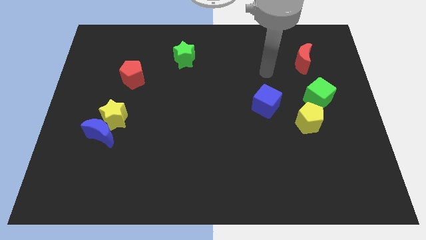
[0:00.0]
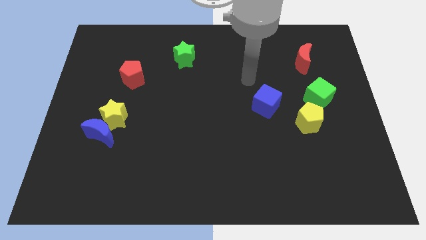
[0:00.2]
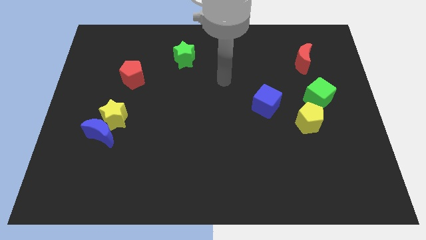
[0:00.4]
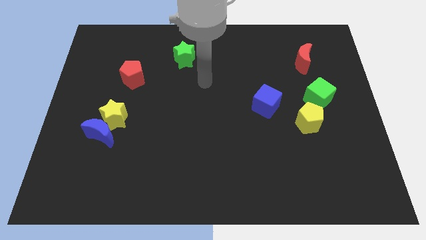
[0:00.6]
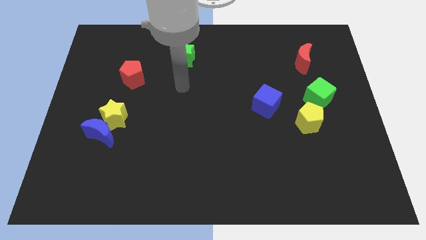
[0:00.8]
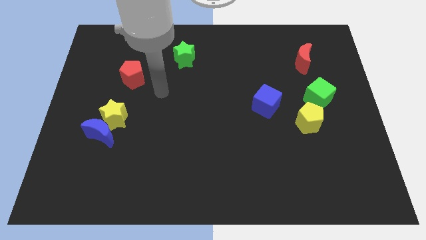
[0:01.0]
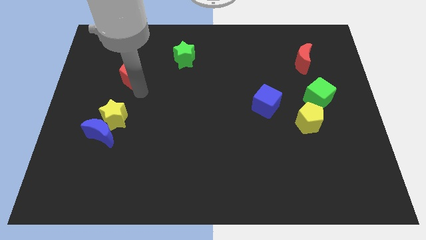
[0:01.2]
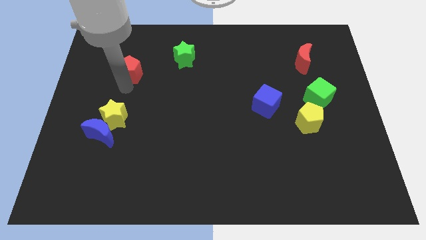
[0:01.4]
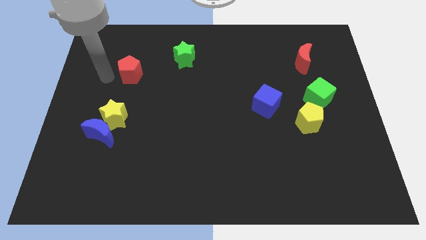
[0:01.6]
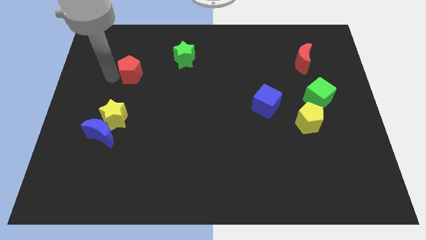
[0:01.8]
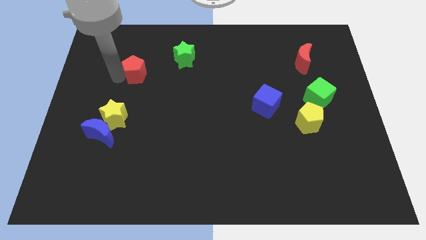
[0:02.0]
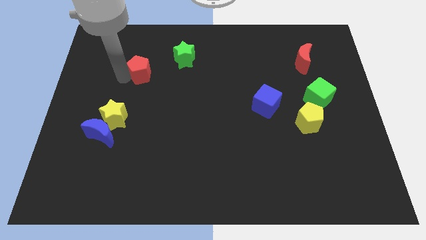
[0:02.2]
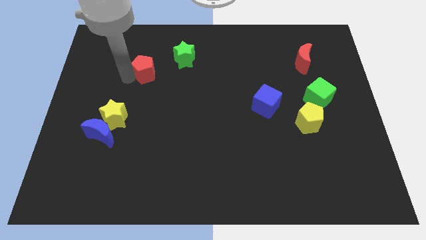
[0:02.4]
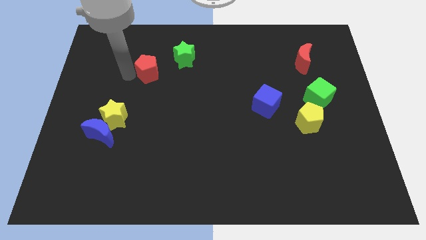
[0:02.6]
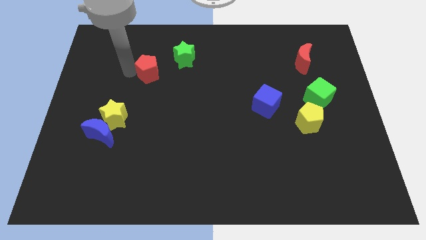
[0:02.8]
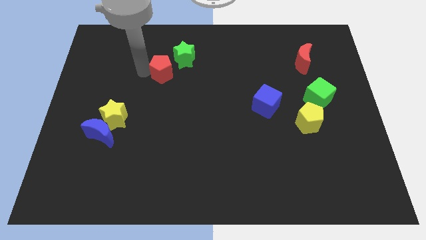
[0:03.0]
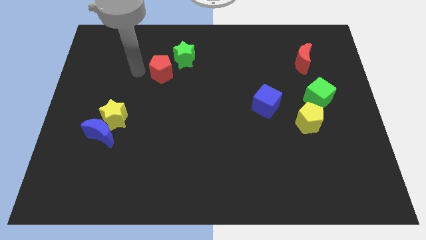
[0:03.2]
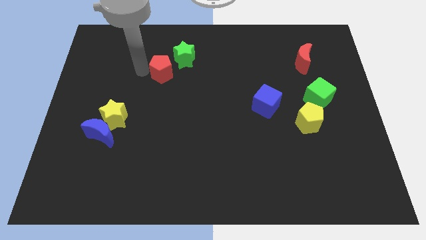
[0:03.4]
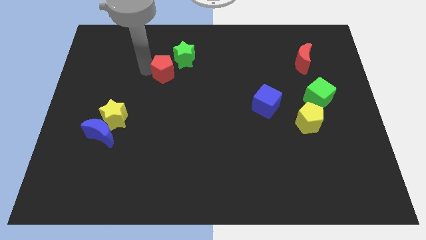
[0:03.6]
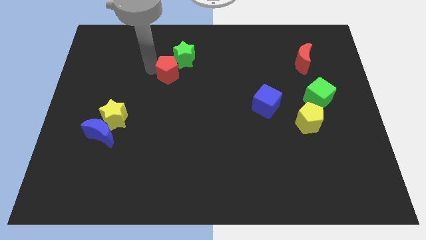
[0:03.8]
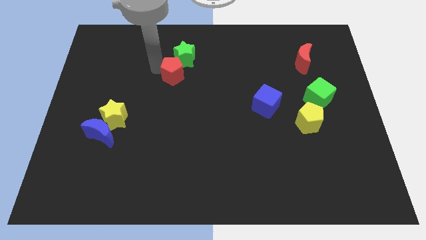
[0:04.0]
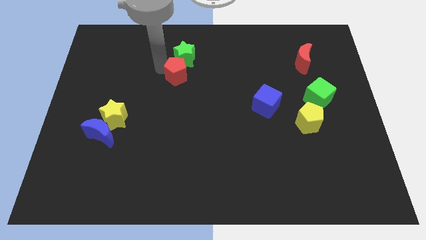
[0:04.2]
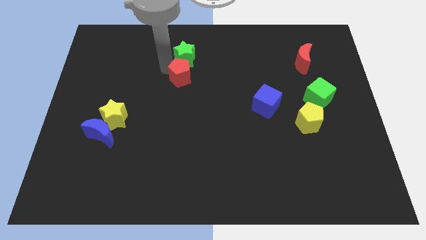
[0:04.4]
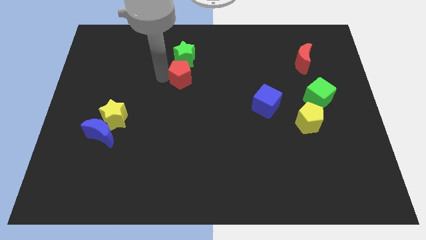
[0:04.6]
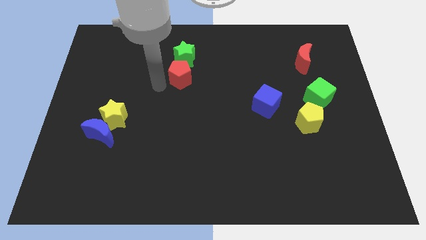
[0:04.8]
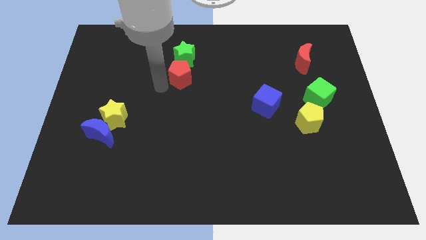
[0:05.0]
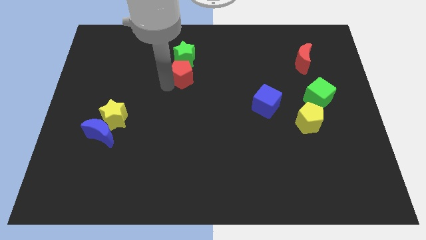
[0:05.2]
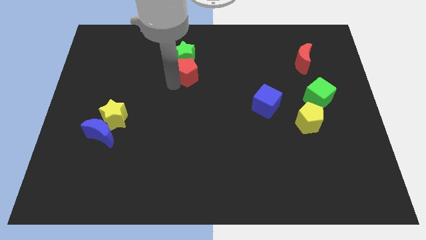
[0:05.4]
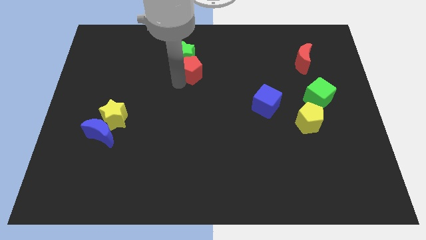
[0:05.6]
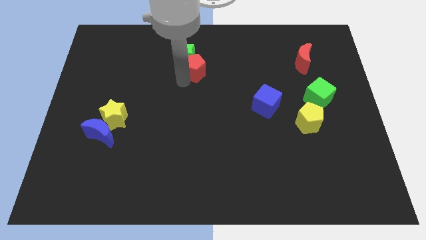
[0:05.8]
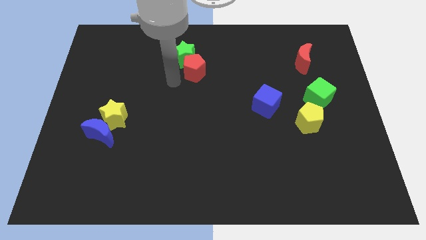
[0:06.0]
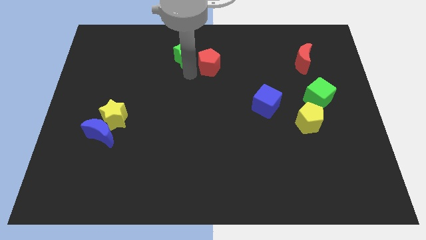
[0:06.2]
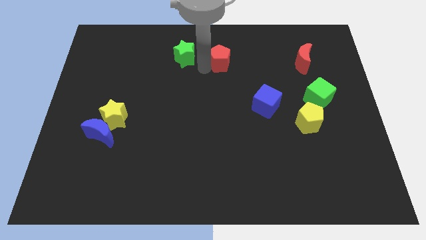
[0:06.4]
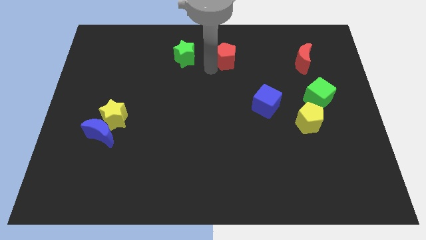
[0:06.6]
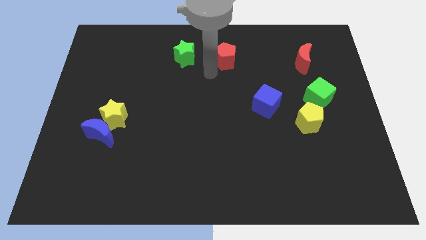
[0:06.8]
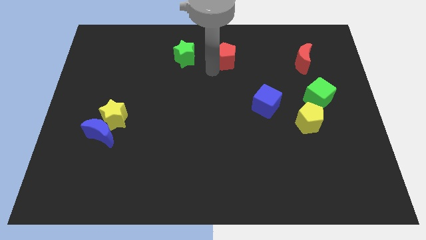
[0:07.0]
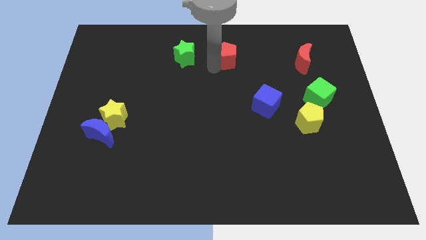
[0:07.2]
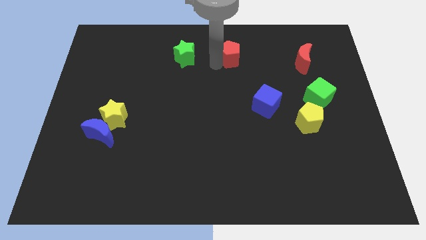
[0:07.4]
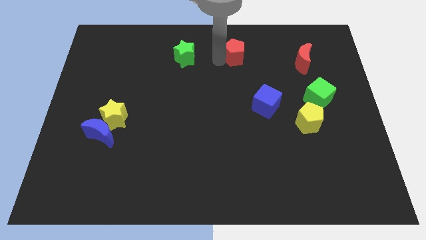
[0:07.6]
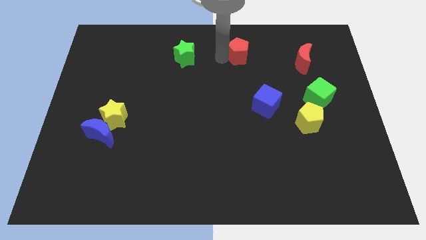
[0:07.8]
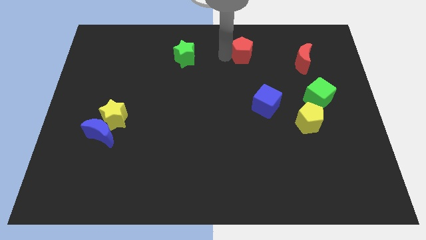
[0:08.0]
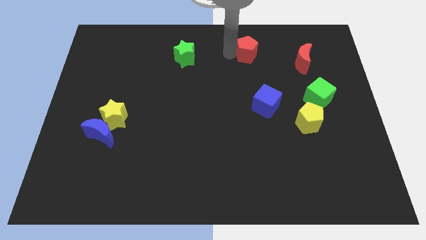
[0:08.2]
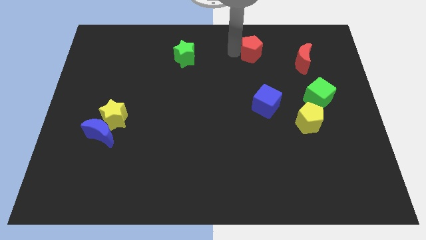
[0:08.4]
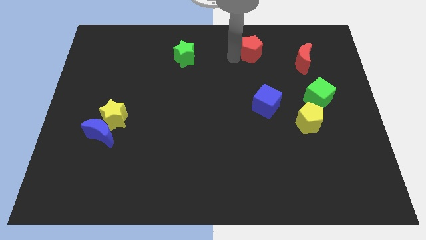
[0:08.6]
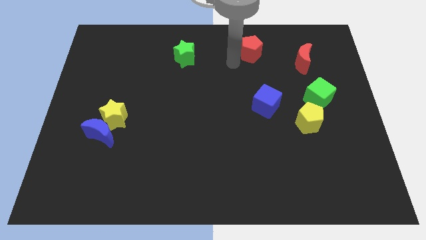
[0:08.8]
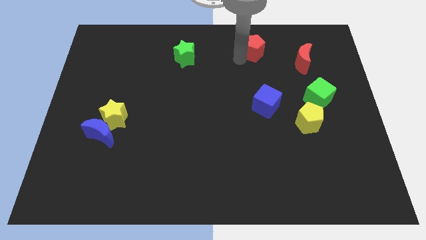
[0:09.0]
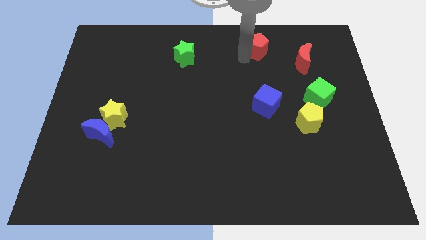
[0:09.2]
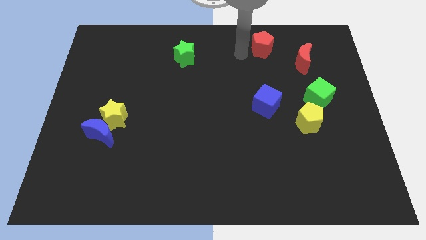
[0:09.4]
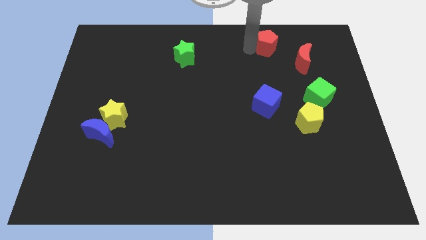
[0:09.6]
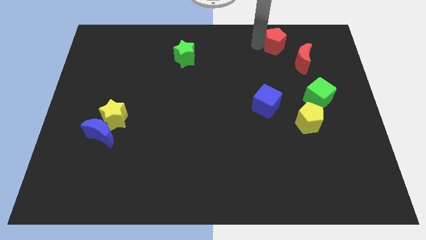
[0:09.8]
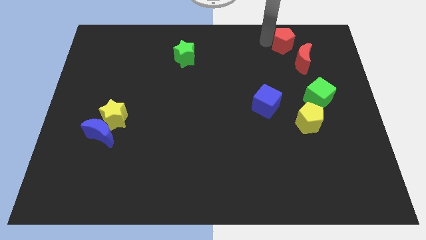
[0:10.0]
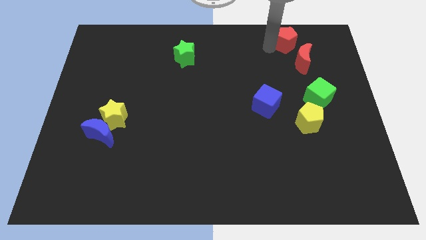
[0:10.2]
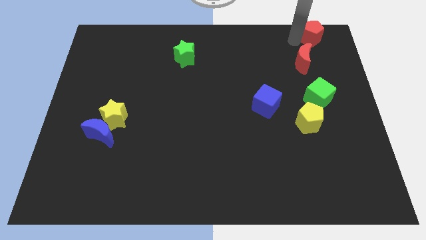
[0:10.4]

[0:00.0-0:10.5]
put the red pentagon to the top right corner

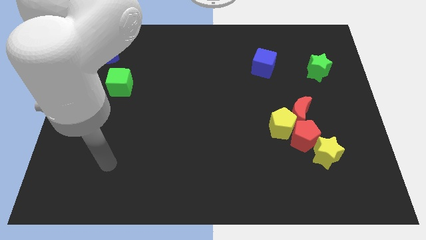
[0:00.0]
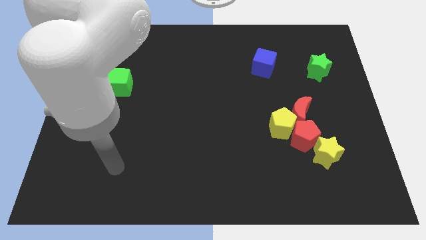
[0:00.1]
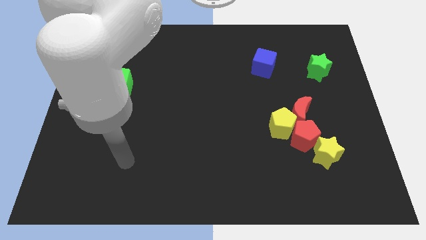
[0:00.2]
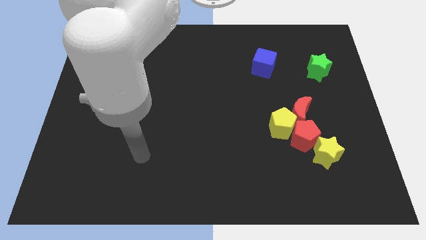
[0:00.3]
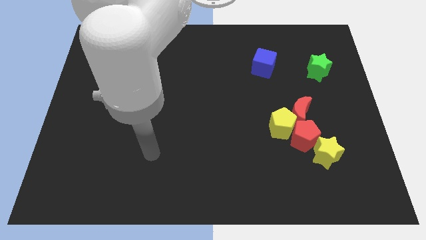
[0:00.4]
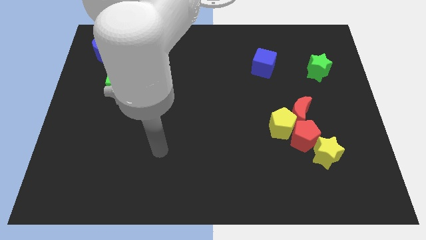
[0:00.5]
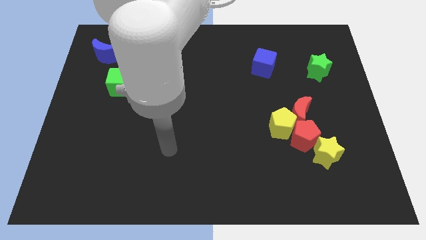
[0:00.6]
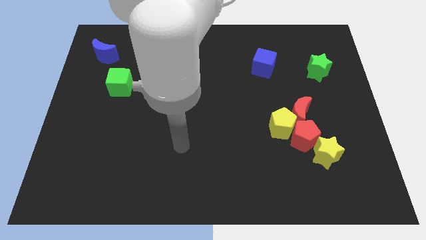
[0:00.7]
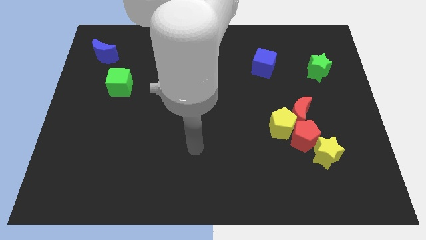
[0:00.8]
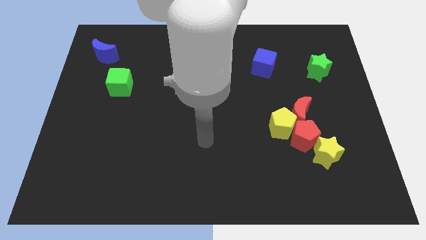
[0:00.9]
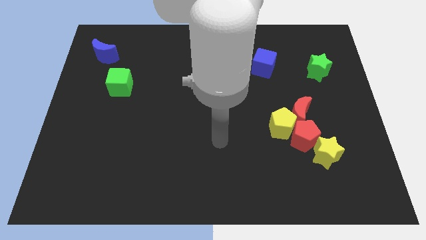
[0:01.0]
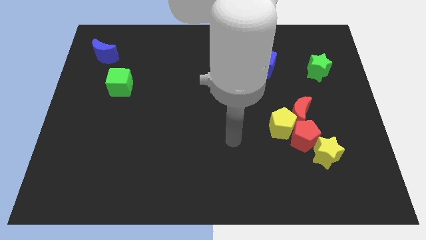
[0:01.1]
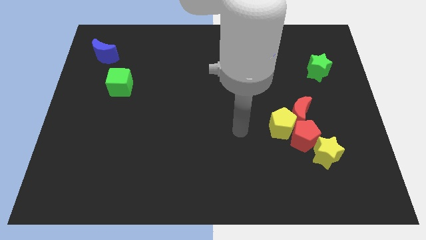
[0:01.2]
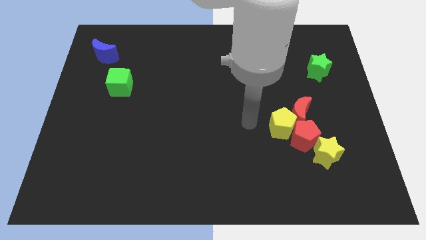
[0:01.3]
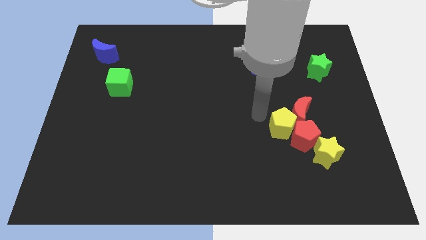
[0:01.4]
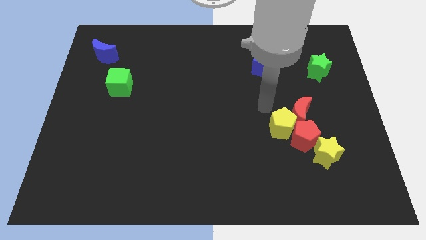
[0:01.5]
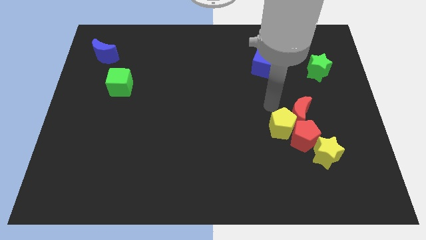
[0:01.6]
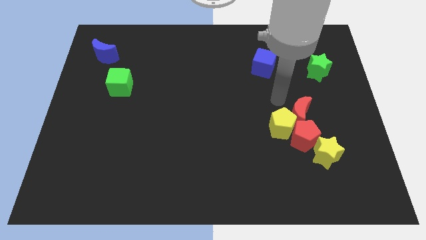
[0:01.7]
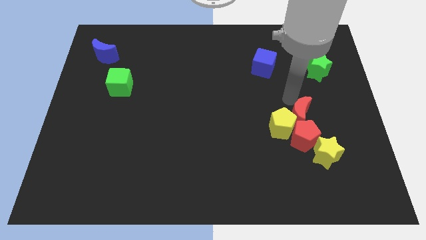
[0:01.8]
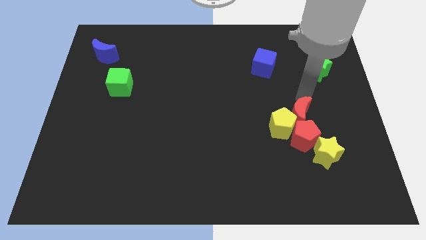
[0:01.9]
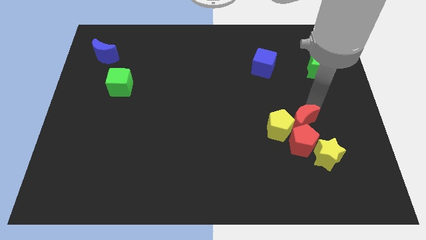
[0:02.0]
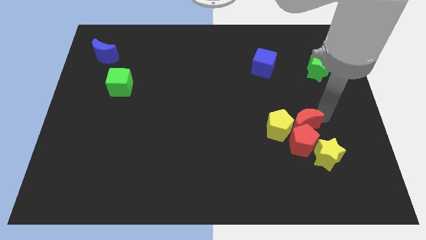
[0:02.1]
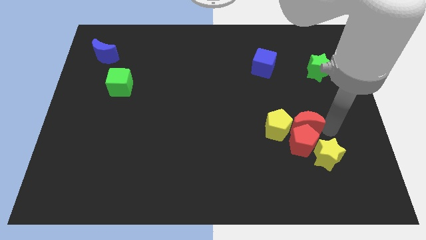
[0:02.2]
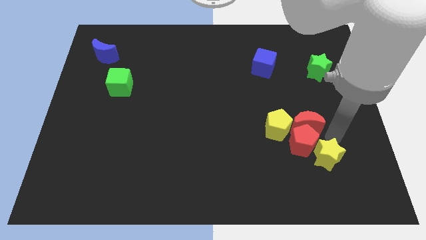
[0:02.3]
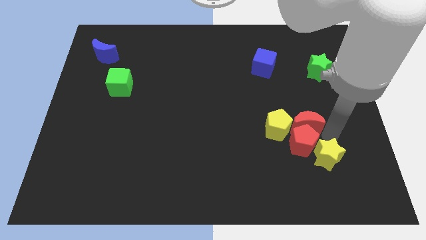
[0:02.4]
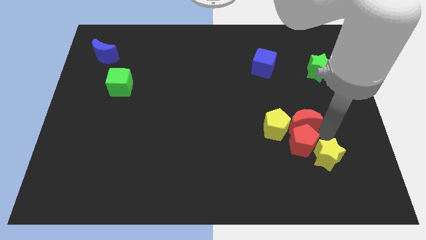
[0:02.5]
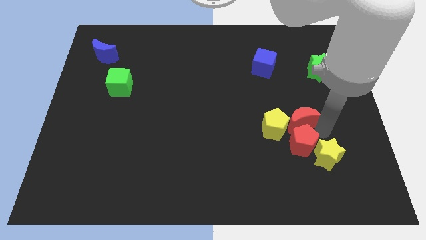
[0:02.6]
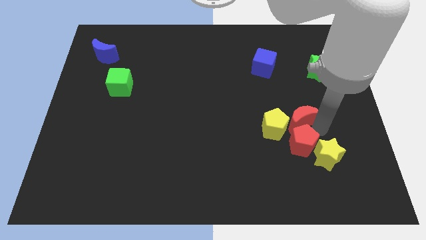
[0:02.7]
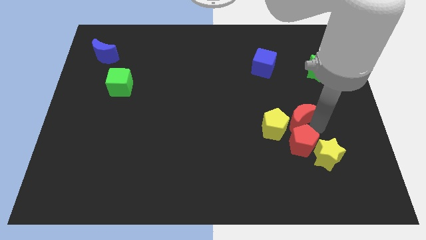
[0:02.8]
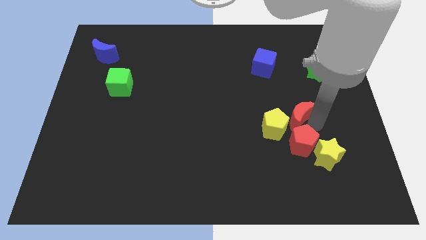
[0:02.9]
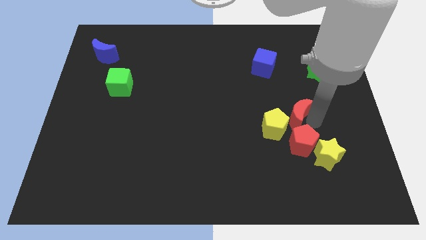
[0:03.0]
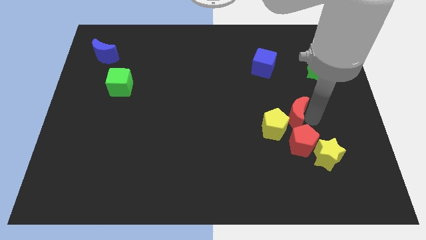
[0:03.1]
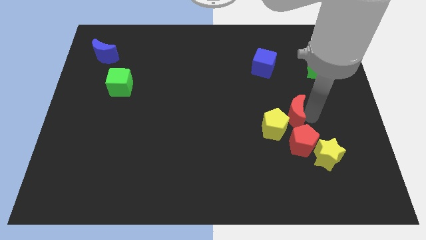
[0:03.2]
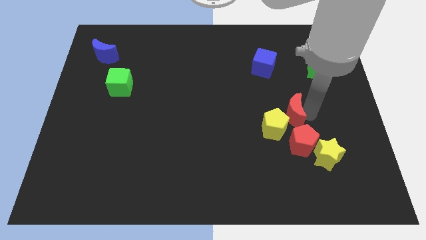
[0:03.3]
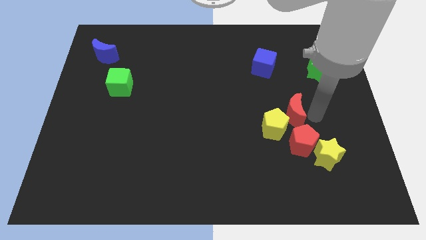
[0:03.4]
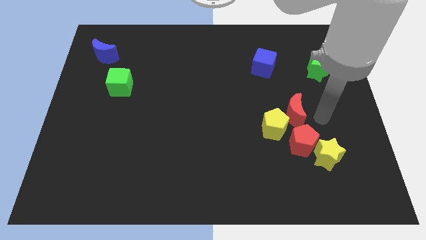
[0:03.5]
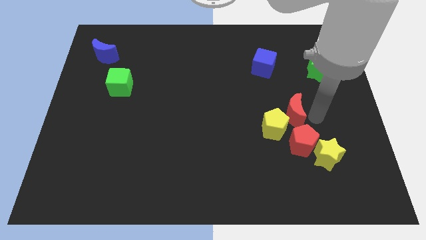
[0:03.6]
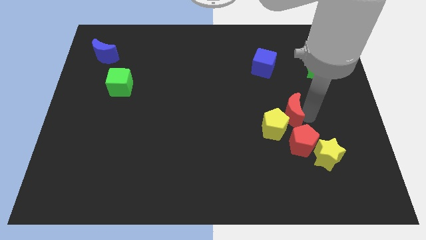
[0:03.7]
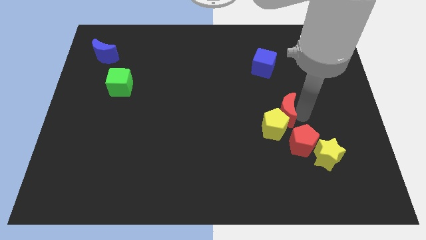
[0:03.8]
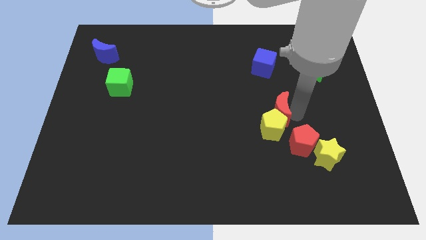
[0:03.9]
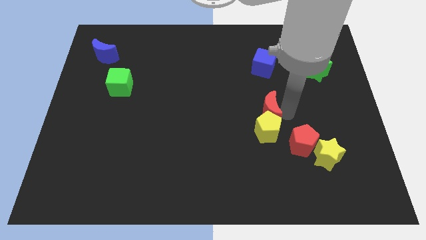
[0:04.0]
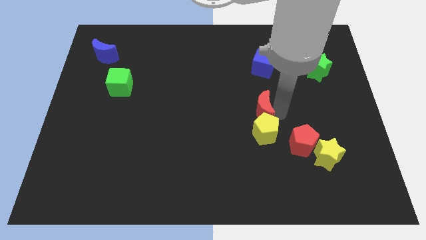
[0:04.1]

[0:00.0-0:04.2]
push the red moon to the center of the board
